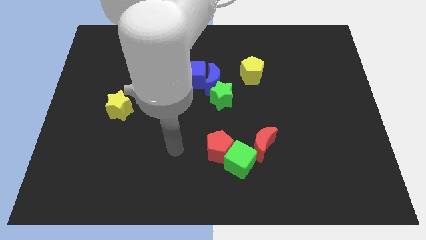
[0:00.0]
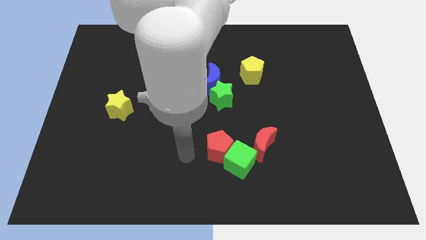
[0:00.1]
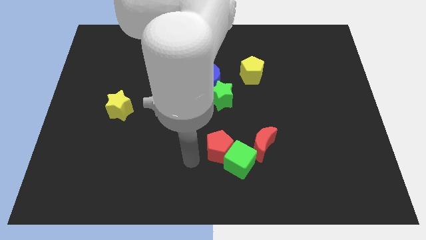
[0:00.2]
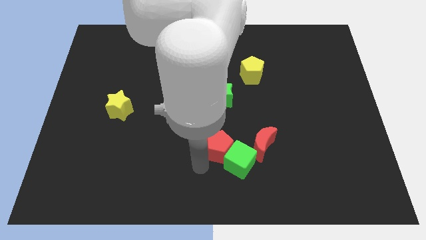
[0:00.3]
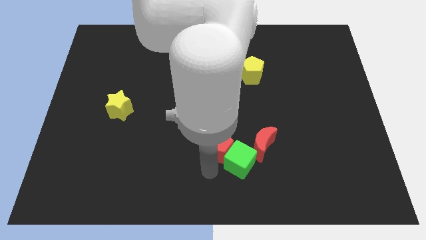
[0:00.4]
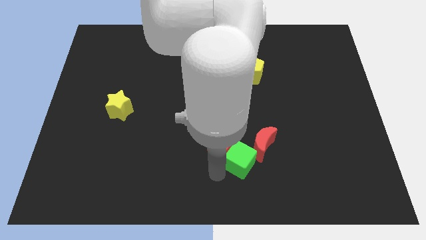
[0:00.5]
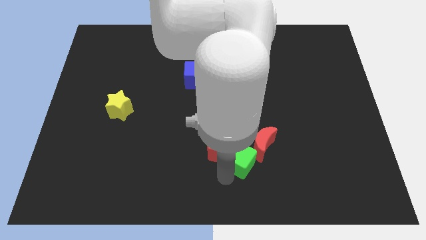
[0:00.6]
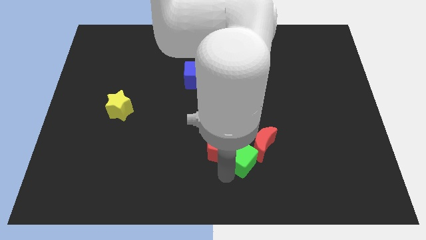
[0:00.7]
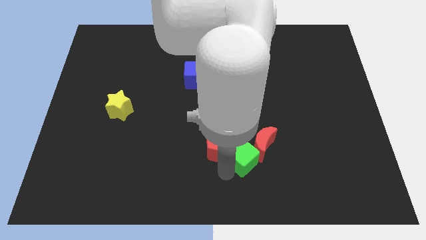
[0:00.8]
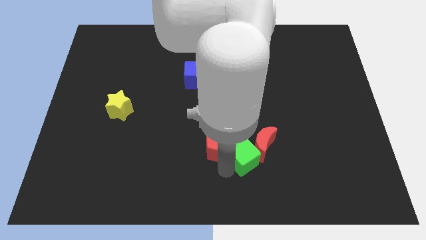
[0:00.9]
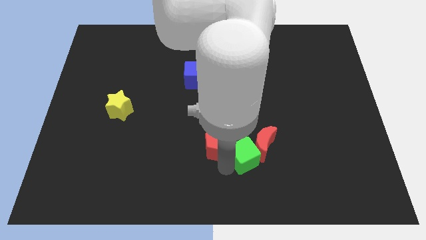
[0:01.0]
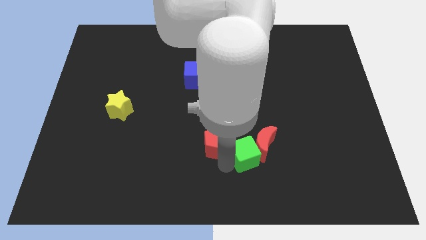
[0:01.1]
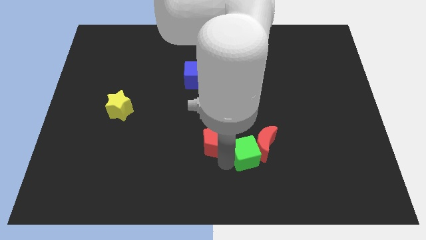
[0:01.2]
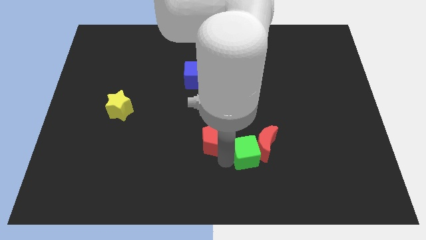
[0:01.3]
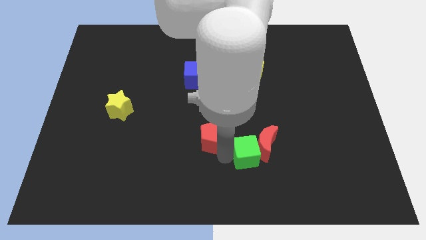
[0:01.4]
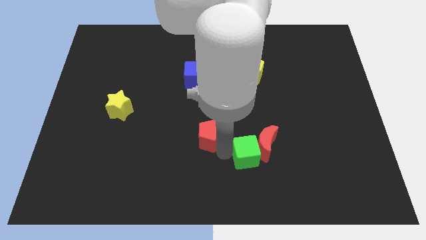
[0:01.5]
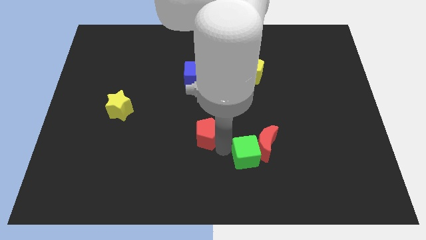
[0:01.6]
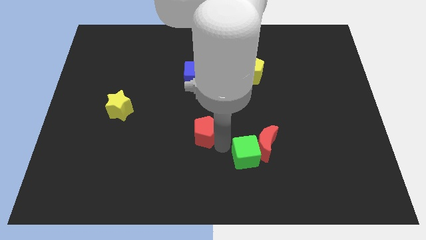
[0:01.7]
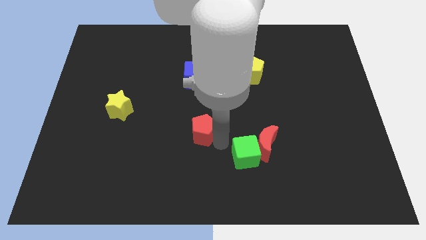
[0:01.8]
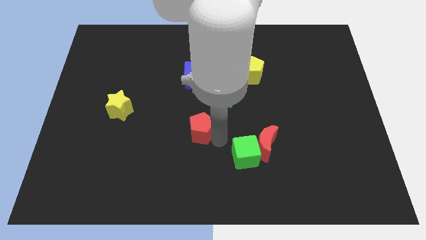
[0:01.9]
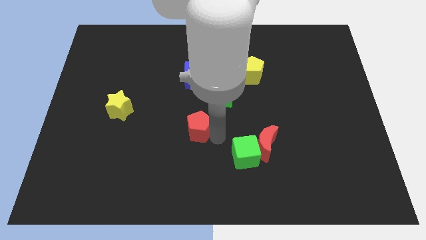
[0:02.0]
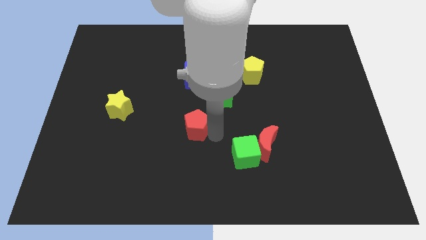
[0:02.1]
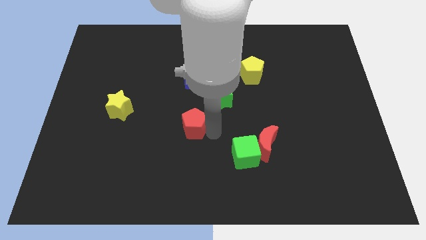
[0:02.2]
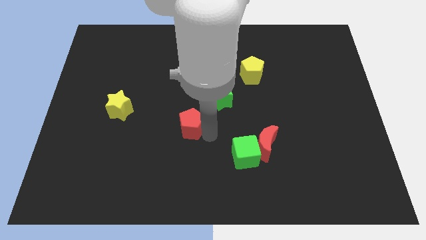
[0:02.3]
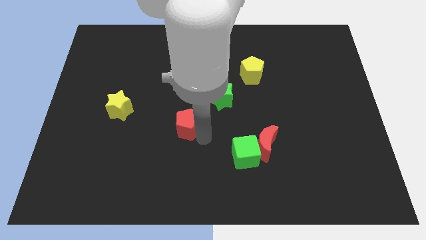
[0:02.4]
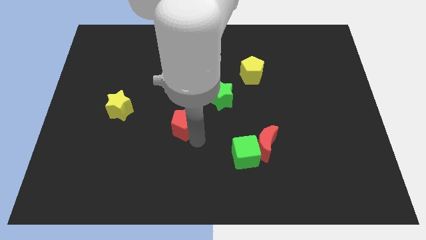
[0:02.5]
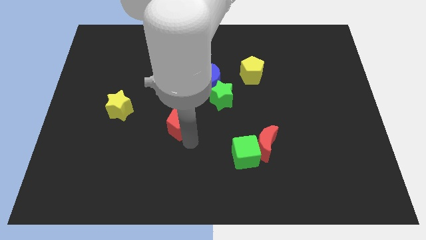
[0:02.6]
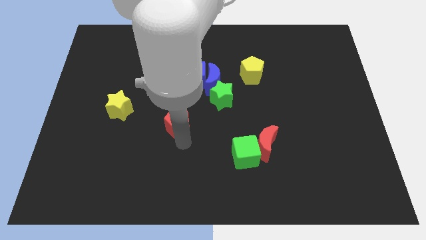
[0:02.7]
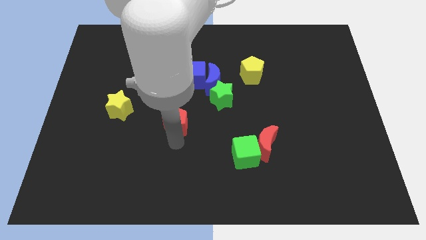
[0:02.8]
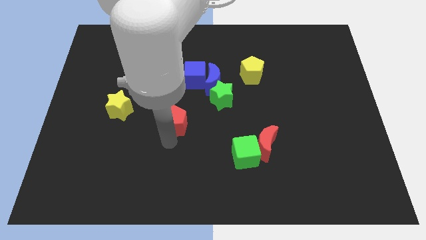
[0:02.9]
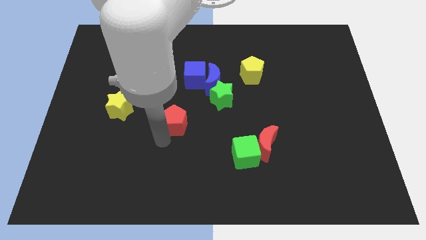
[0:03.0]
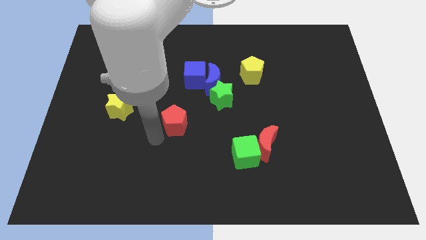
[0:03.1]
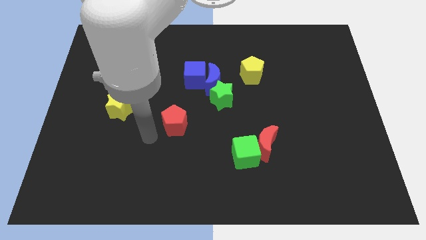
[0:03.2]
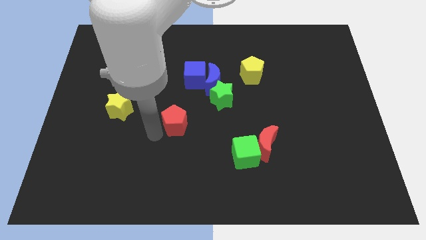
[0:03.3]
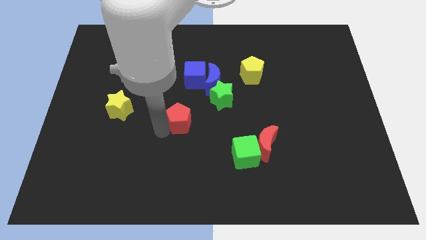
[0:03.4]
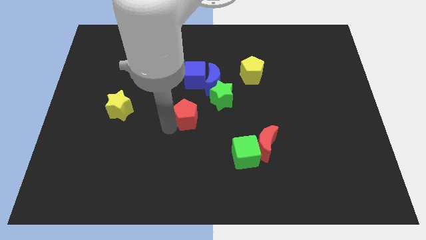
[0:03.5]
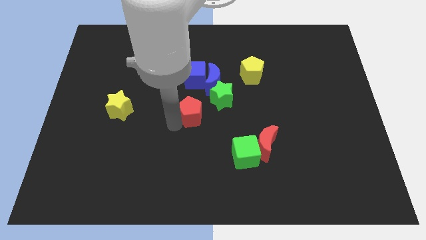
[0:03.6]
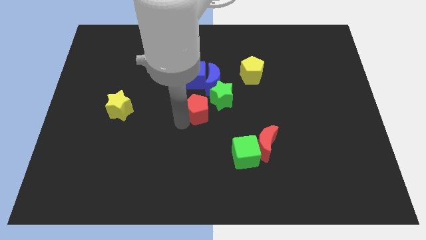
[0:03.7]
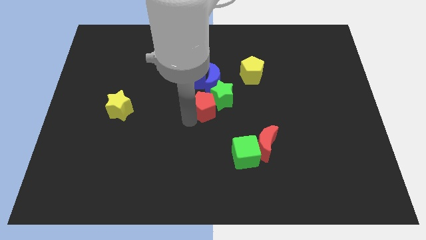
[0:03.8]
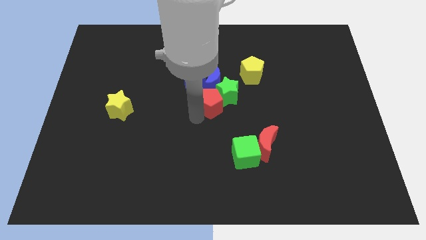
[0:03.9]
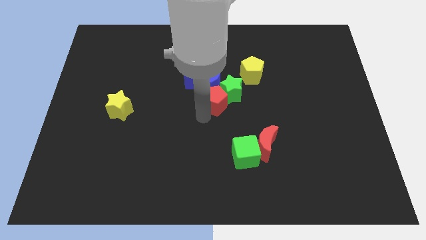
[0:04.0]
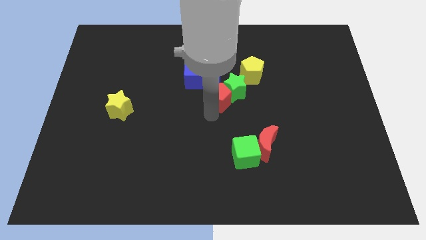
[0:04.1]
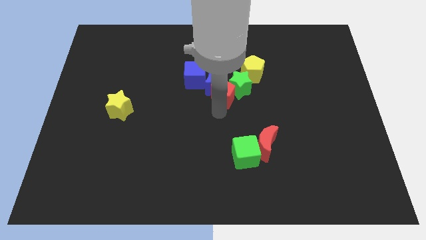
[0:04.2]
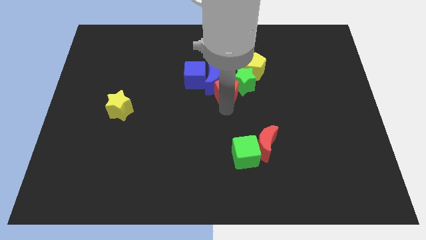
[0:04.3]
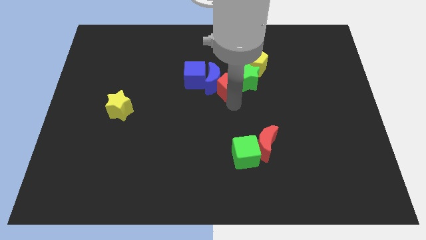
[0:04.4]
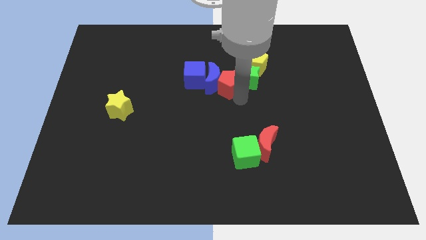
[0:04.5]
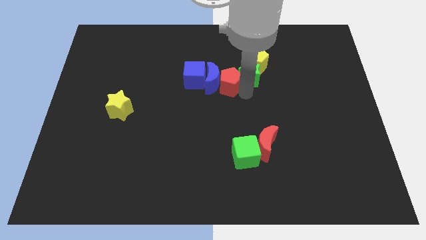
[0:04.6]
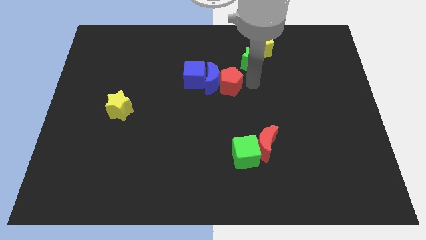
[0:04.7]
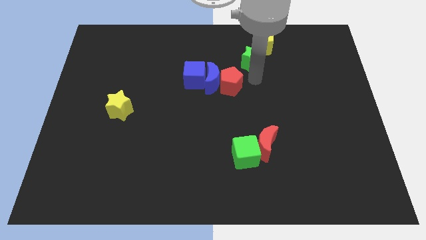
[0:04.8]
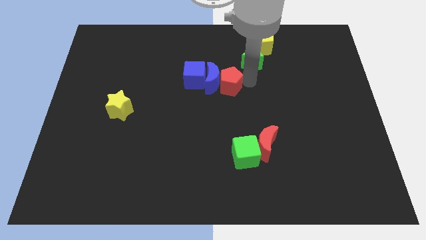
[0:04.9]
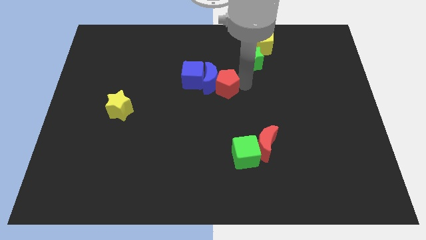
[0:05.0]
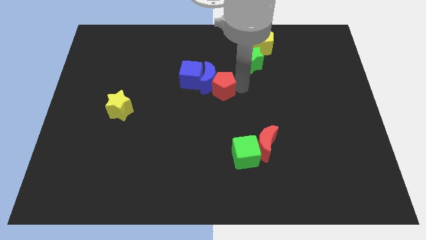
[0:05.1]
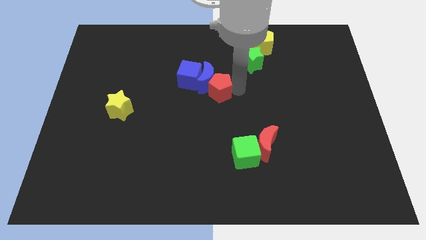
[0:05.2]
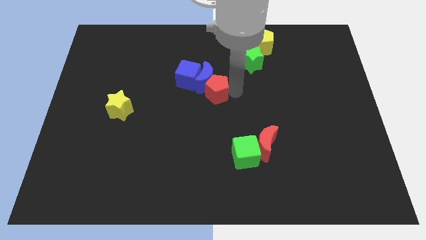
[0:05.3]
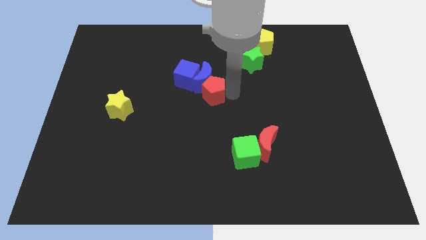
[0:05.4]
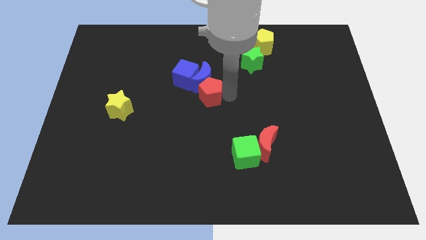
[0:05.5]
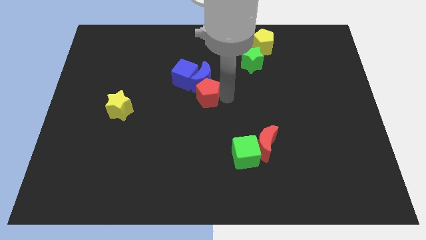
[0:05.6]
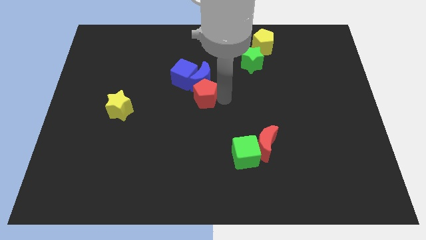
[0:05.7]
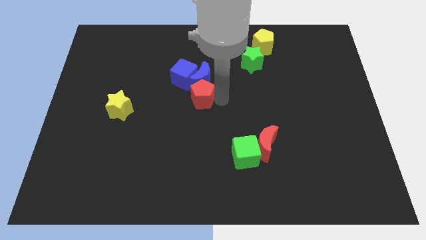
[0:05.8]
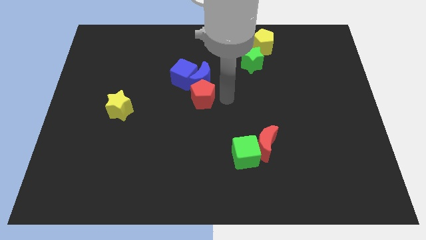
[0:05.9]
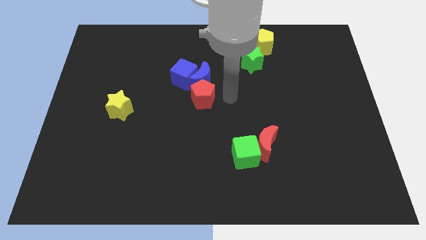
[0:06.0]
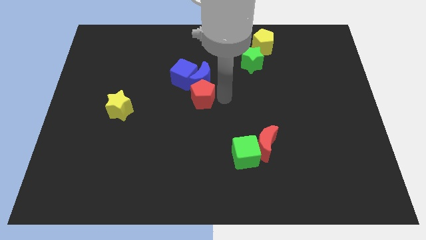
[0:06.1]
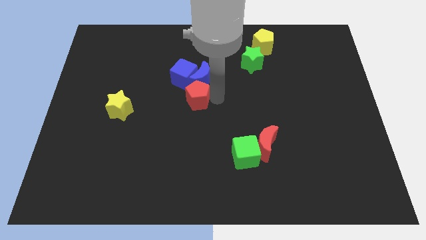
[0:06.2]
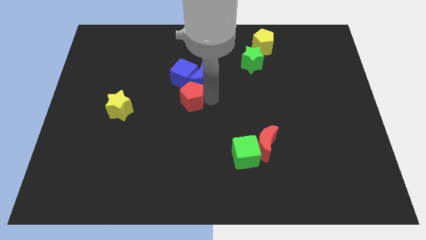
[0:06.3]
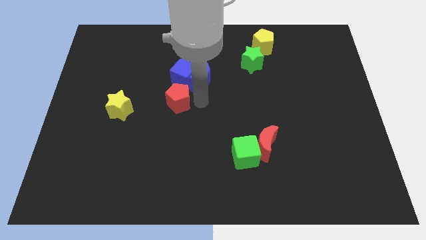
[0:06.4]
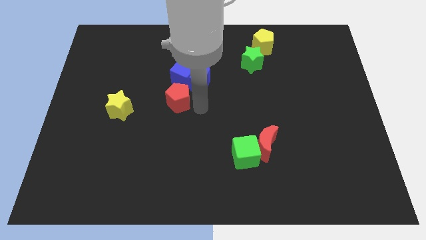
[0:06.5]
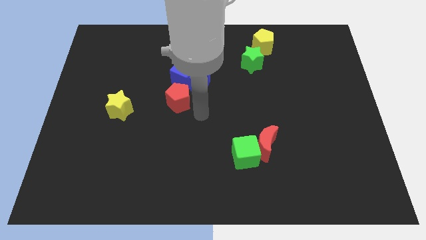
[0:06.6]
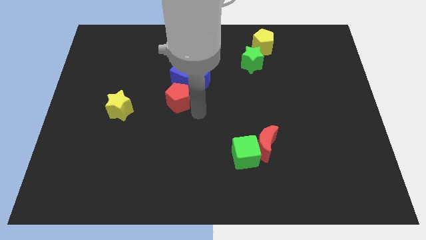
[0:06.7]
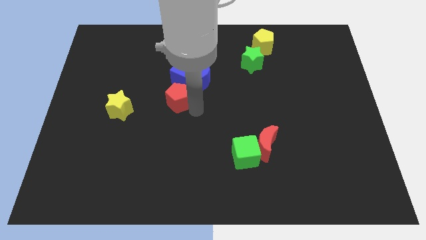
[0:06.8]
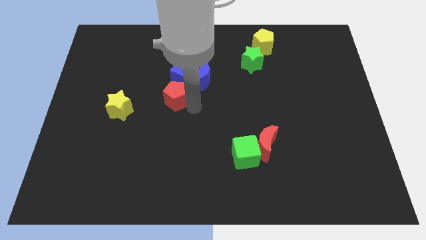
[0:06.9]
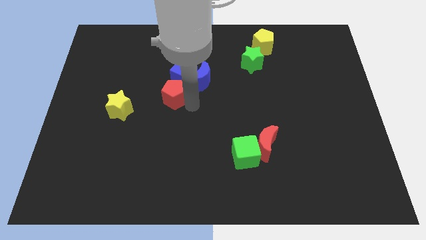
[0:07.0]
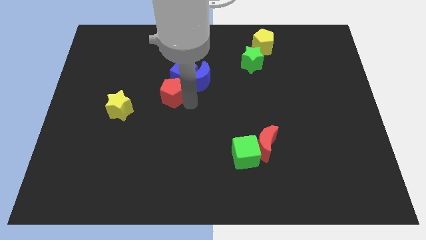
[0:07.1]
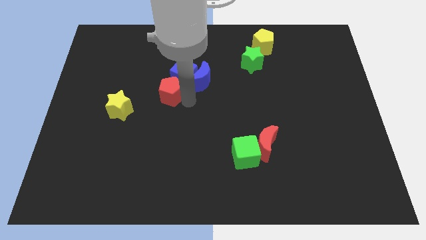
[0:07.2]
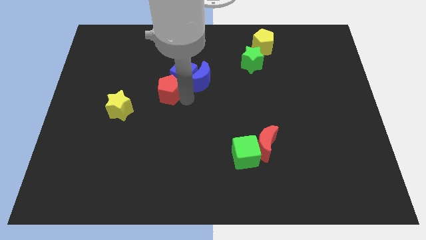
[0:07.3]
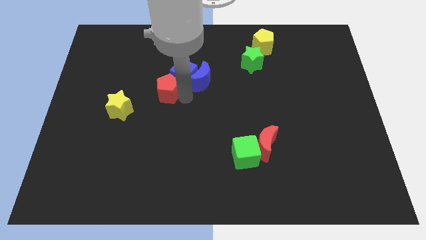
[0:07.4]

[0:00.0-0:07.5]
move the red pentagon upwards and left diagonally
